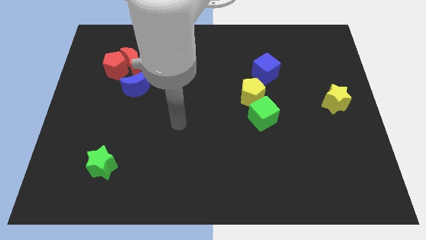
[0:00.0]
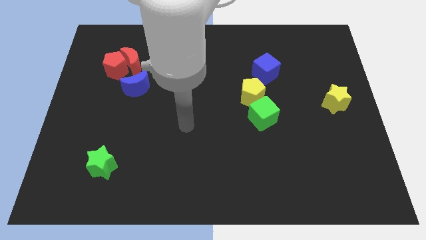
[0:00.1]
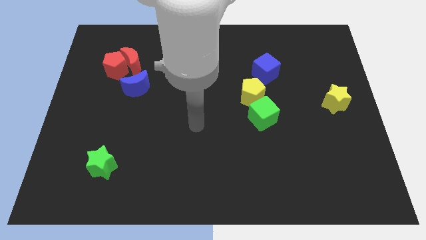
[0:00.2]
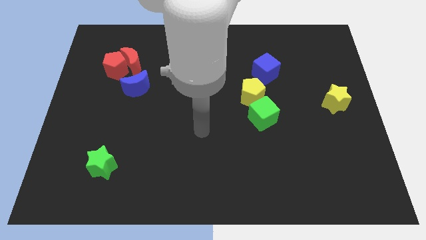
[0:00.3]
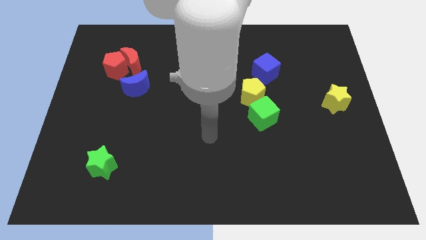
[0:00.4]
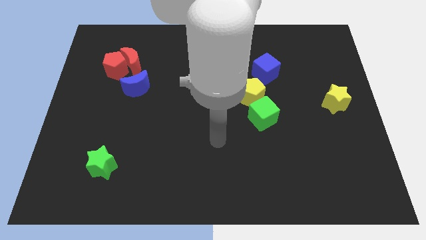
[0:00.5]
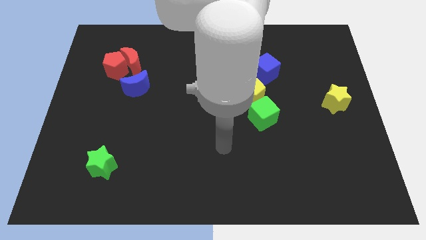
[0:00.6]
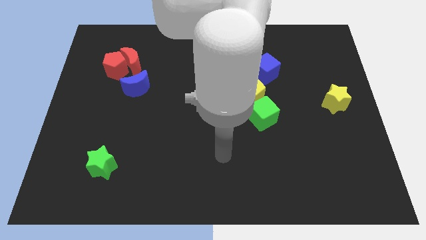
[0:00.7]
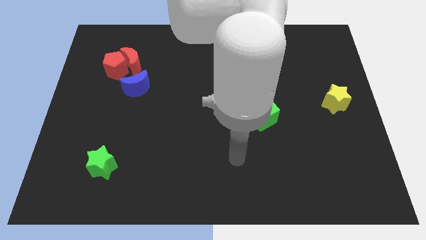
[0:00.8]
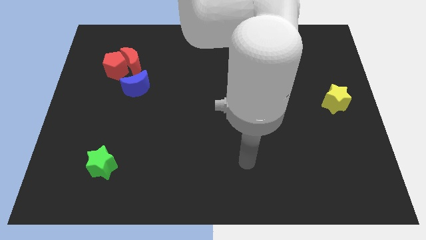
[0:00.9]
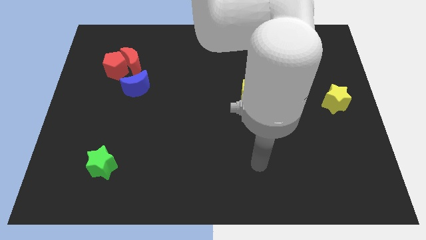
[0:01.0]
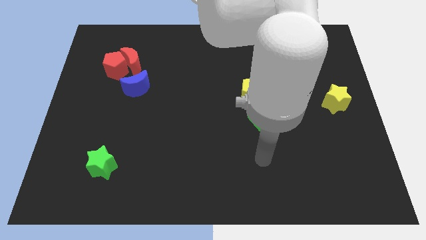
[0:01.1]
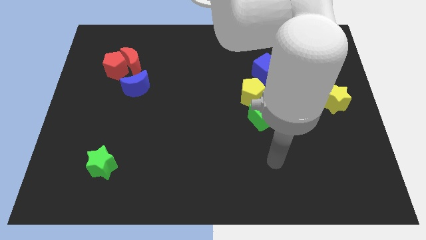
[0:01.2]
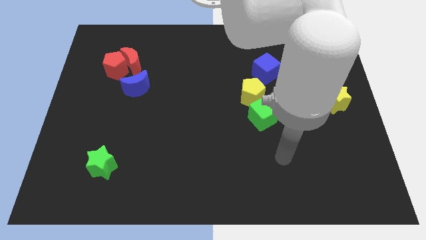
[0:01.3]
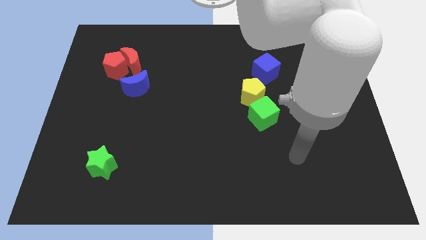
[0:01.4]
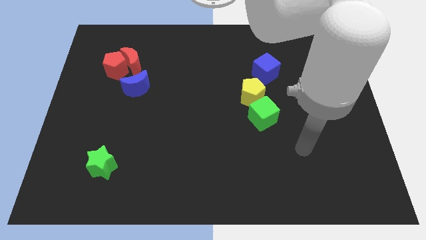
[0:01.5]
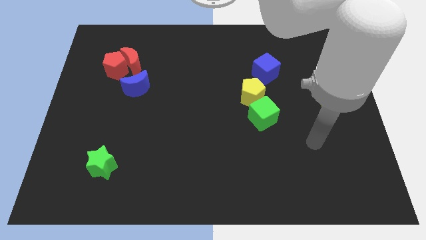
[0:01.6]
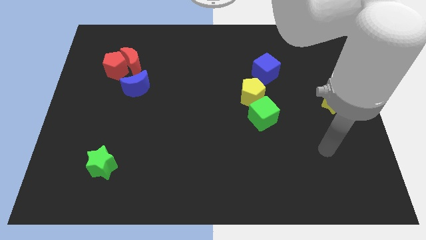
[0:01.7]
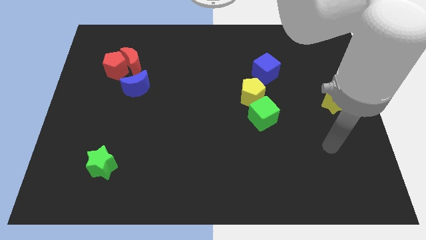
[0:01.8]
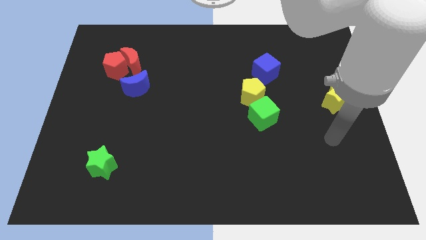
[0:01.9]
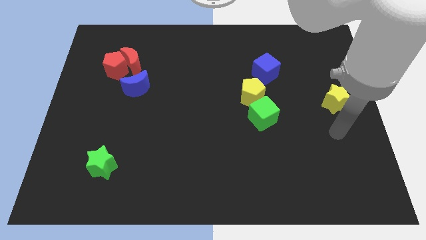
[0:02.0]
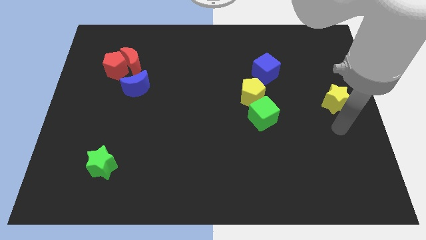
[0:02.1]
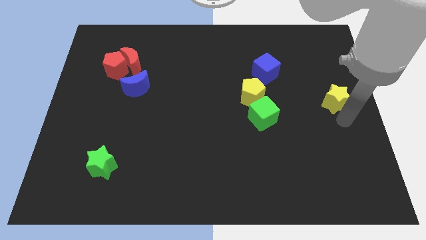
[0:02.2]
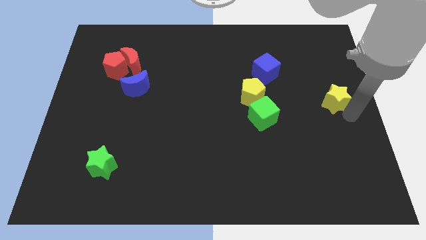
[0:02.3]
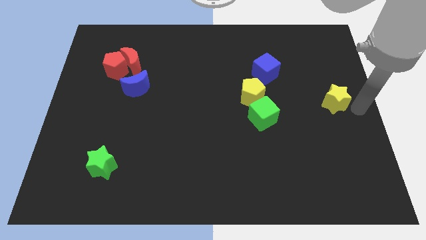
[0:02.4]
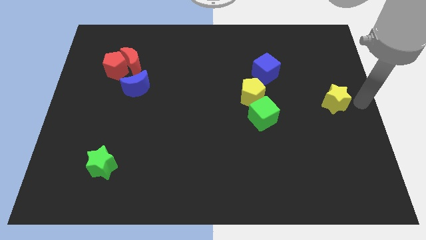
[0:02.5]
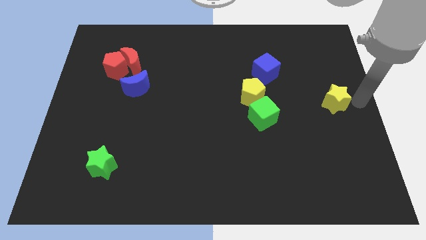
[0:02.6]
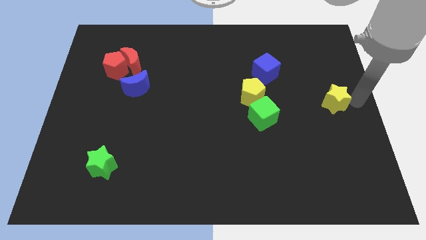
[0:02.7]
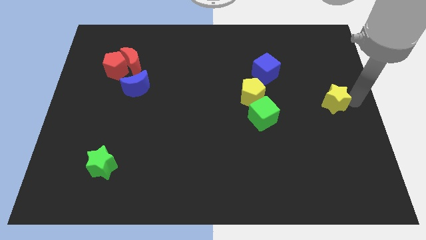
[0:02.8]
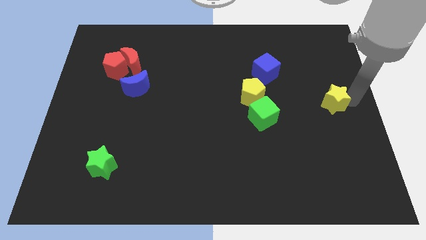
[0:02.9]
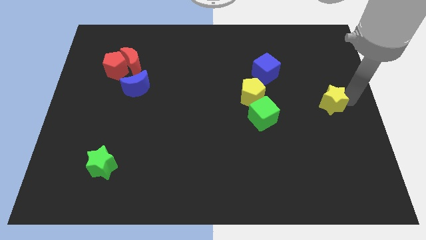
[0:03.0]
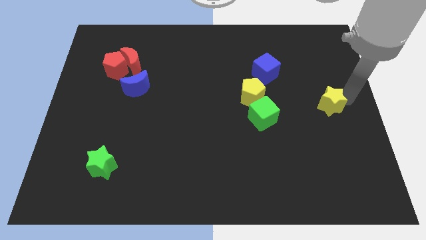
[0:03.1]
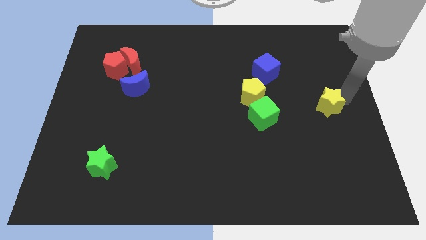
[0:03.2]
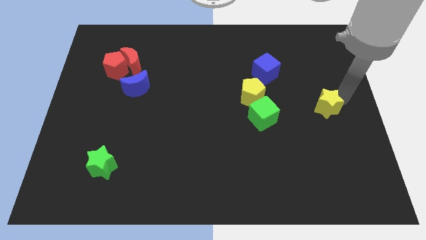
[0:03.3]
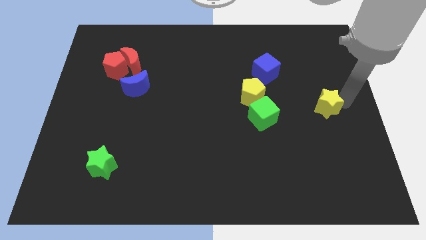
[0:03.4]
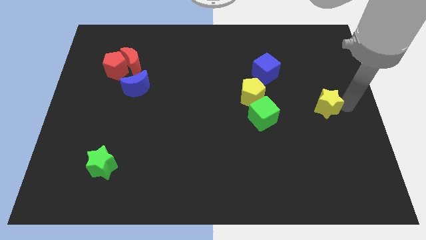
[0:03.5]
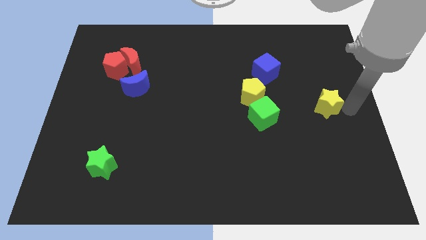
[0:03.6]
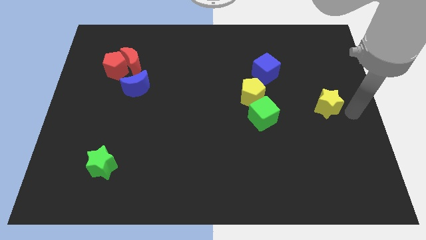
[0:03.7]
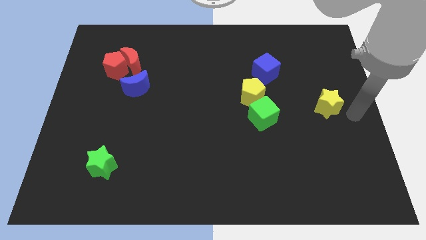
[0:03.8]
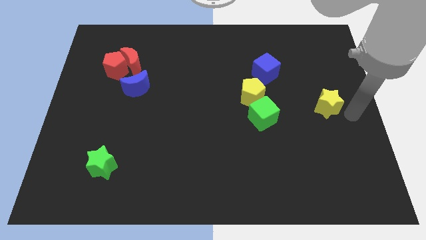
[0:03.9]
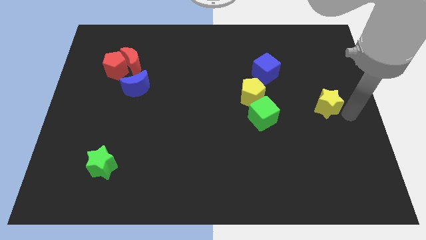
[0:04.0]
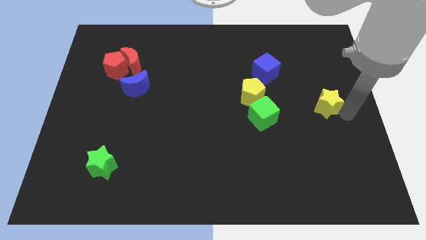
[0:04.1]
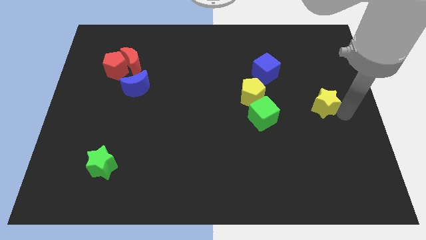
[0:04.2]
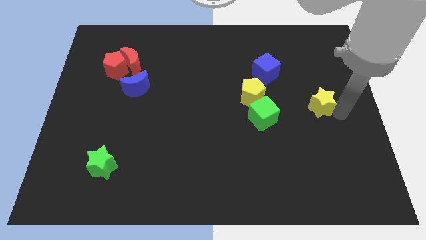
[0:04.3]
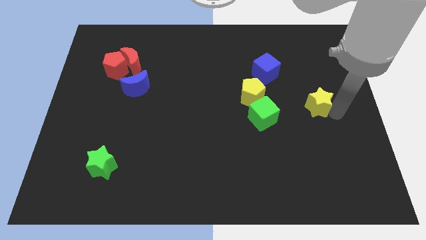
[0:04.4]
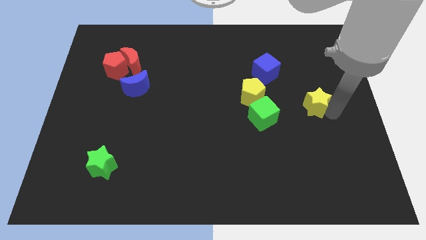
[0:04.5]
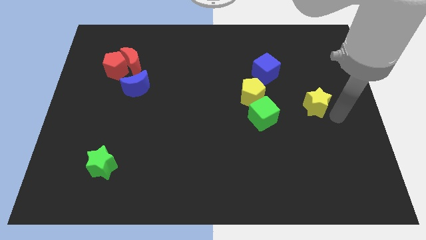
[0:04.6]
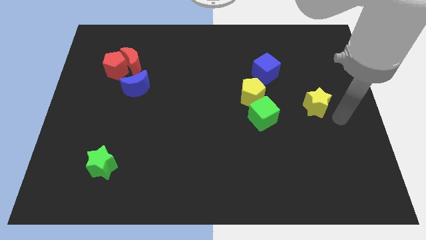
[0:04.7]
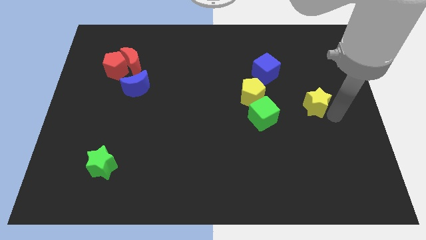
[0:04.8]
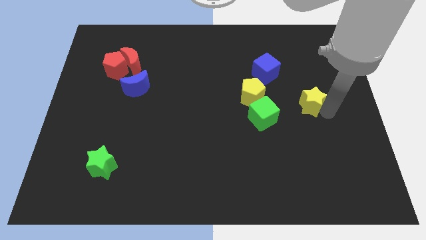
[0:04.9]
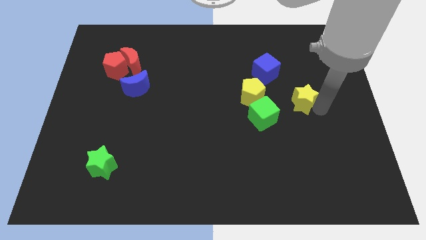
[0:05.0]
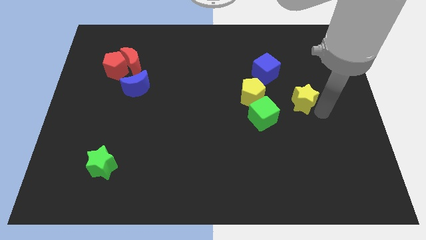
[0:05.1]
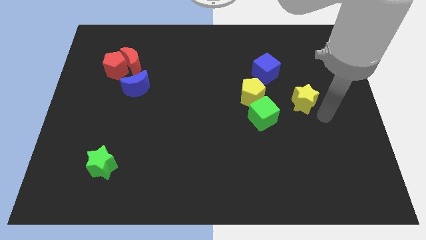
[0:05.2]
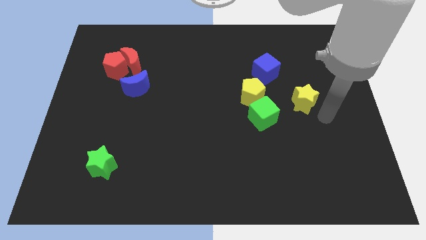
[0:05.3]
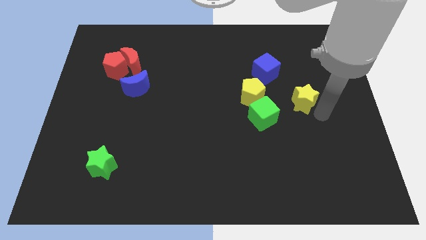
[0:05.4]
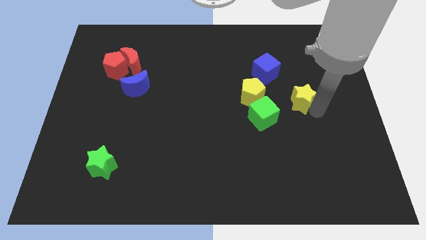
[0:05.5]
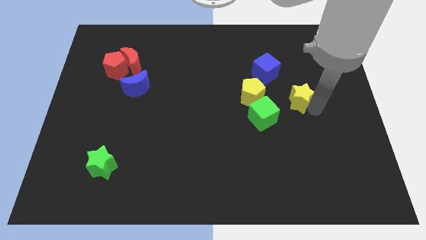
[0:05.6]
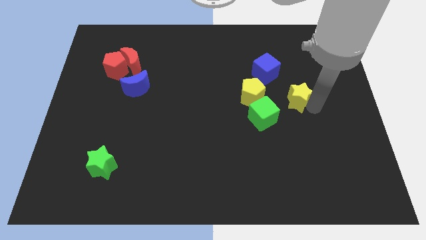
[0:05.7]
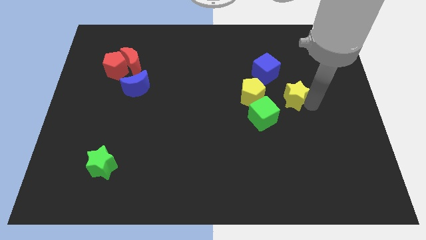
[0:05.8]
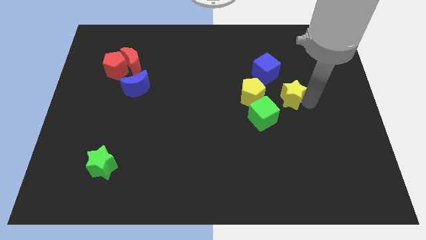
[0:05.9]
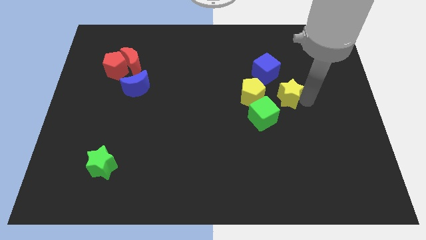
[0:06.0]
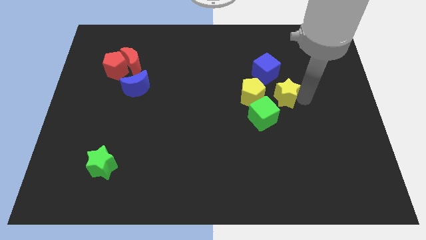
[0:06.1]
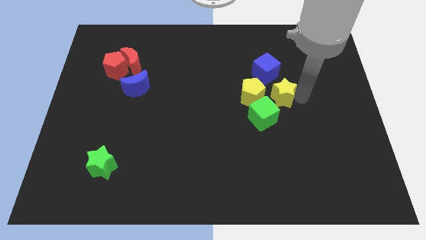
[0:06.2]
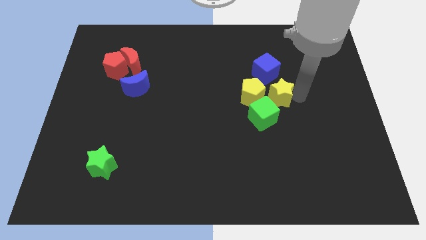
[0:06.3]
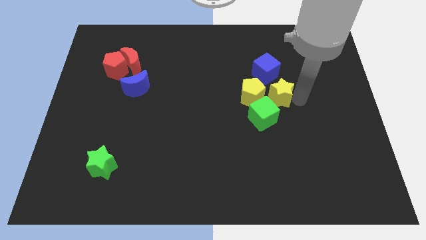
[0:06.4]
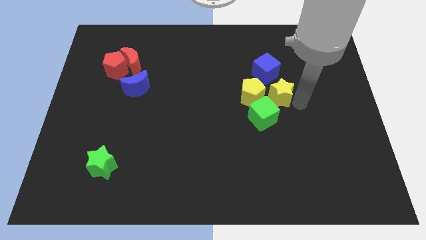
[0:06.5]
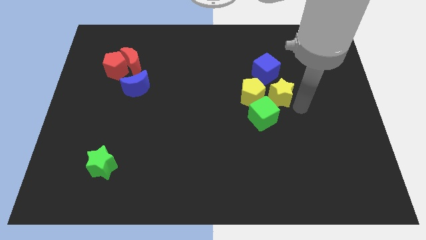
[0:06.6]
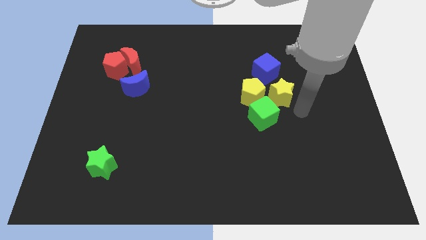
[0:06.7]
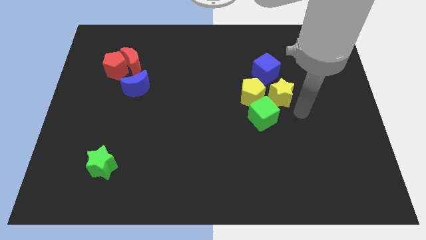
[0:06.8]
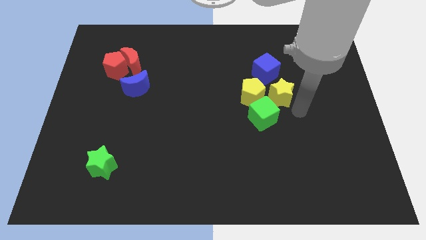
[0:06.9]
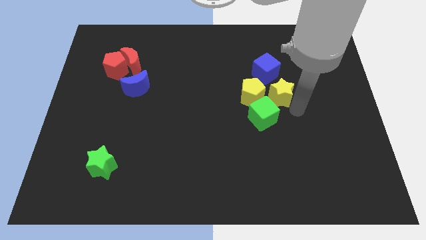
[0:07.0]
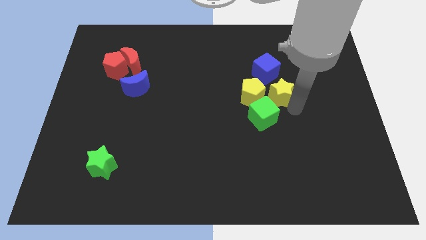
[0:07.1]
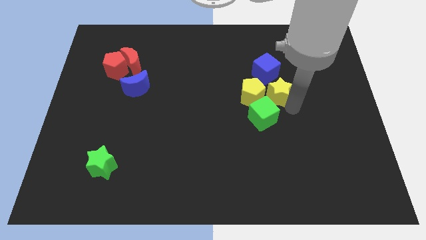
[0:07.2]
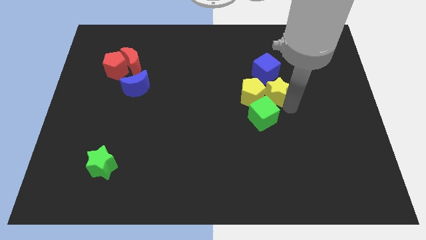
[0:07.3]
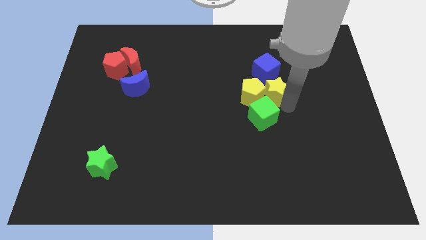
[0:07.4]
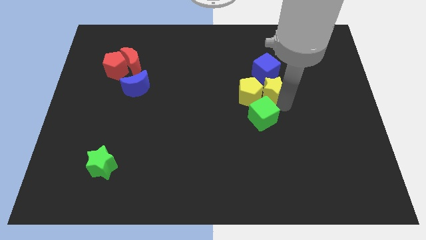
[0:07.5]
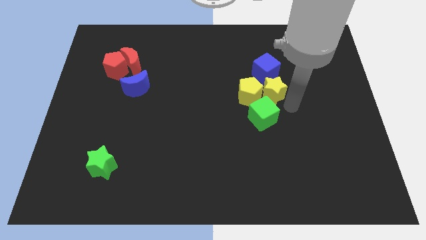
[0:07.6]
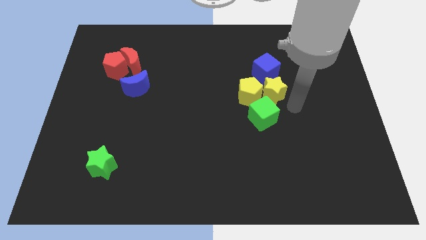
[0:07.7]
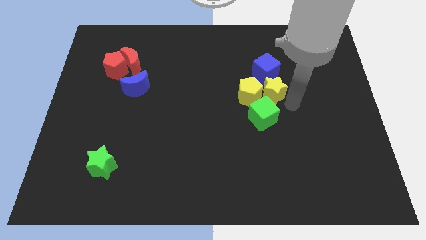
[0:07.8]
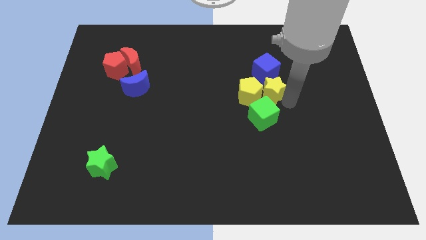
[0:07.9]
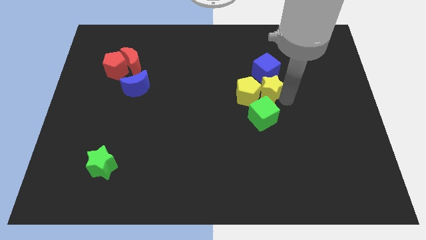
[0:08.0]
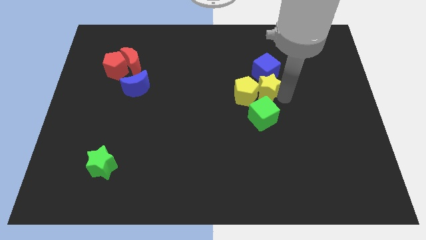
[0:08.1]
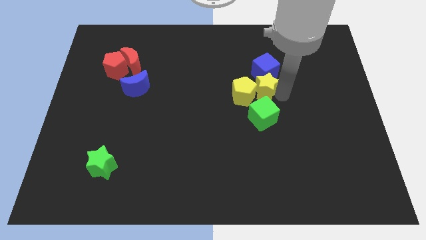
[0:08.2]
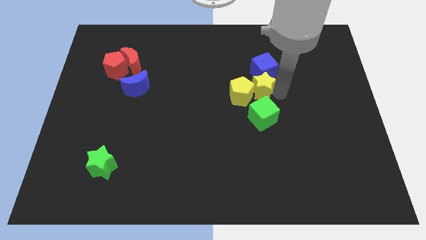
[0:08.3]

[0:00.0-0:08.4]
move the yellow star to the middle of the board
